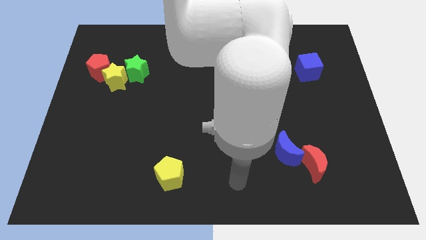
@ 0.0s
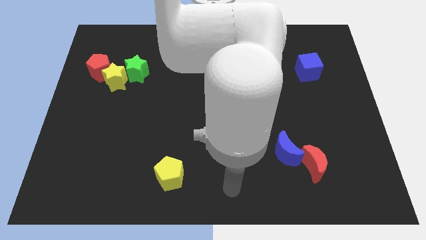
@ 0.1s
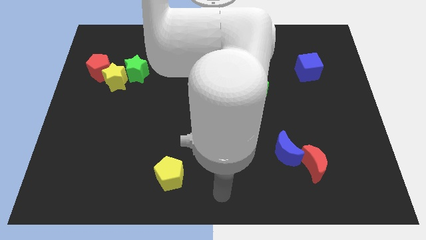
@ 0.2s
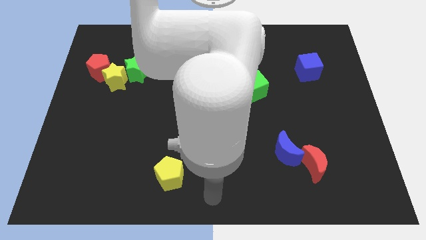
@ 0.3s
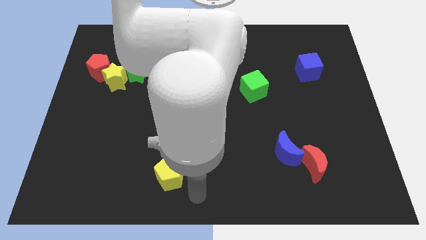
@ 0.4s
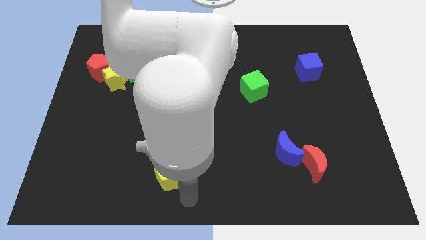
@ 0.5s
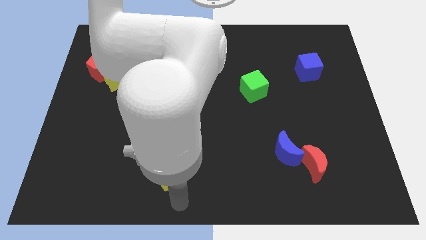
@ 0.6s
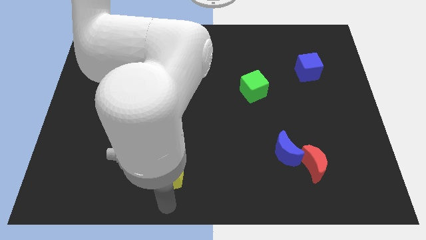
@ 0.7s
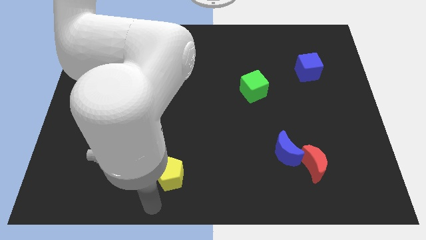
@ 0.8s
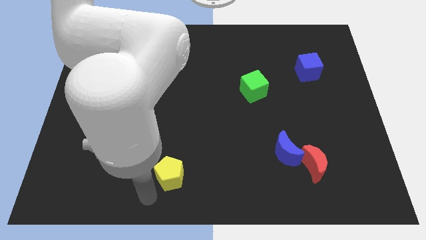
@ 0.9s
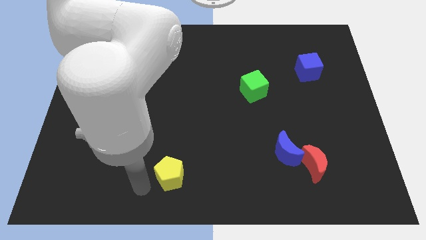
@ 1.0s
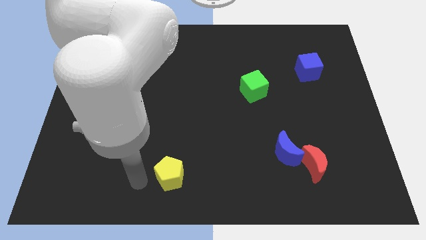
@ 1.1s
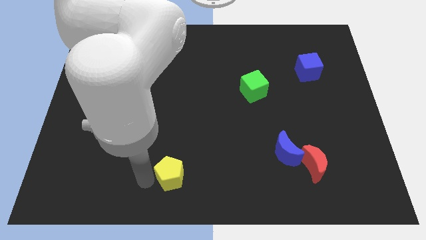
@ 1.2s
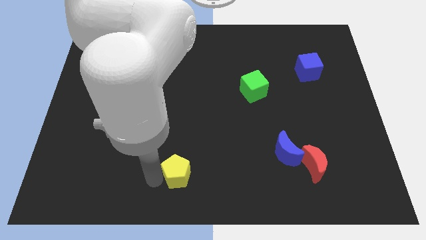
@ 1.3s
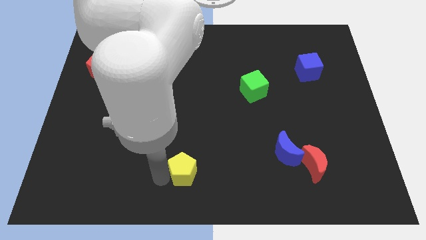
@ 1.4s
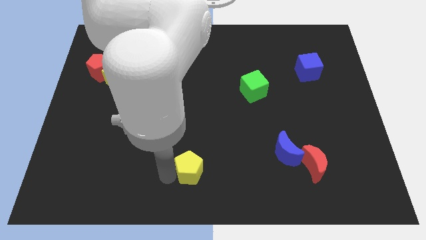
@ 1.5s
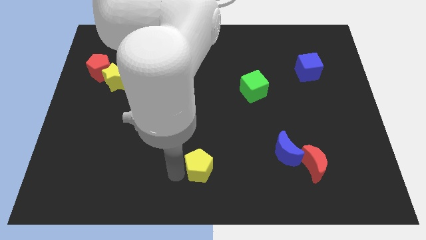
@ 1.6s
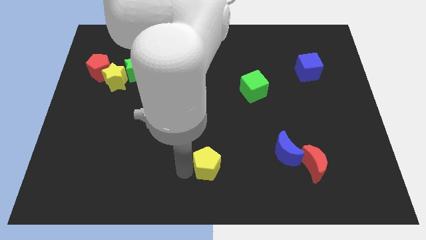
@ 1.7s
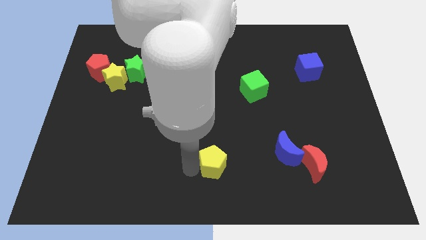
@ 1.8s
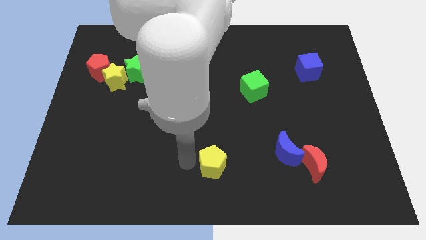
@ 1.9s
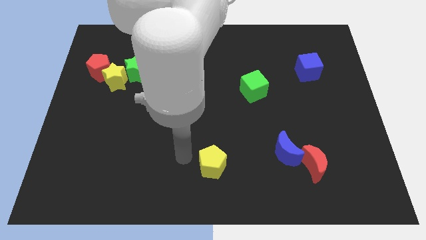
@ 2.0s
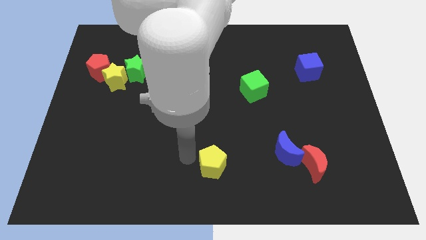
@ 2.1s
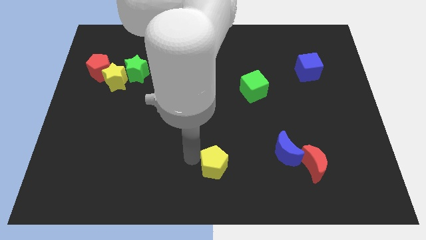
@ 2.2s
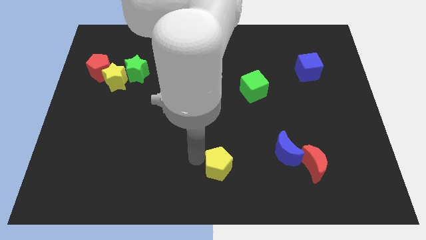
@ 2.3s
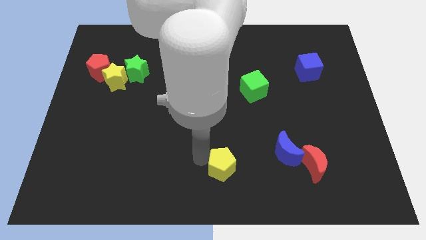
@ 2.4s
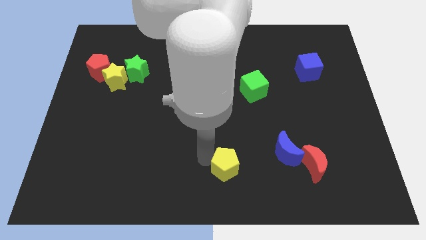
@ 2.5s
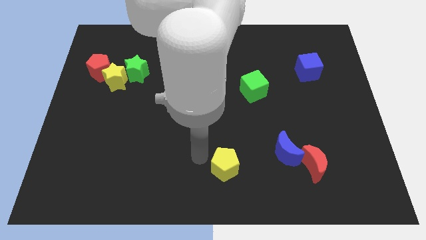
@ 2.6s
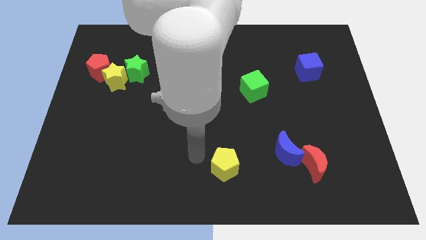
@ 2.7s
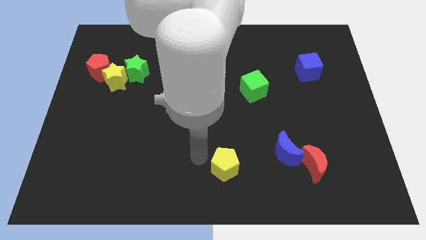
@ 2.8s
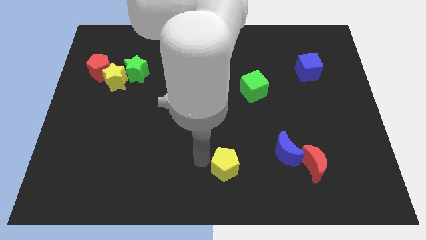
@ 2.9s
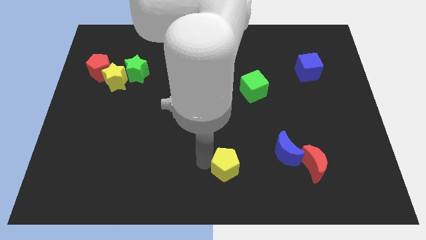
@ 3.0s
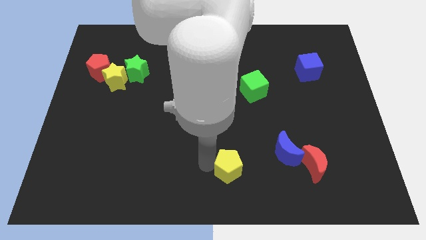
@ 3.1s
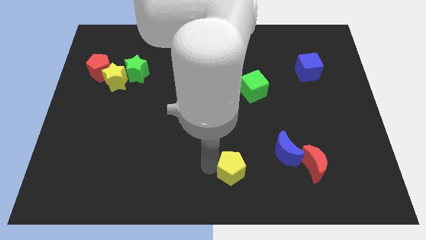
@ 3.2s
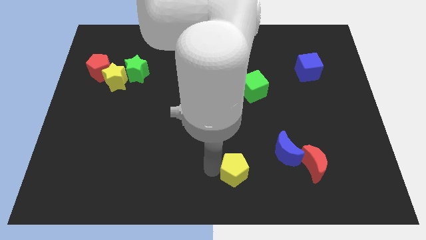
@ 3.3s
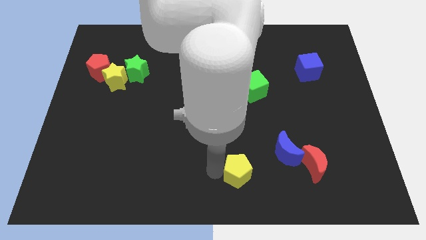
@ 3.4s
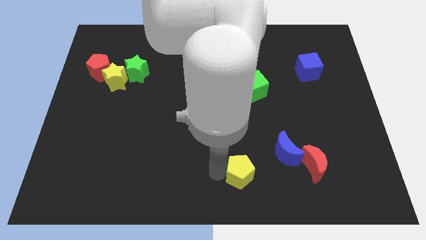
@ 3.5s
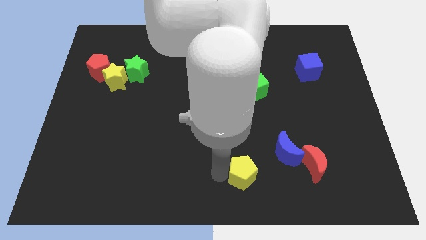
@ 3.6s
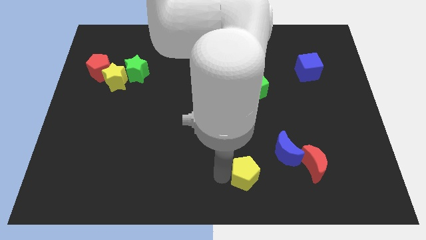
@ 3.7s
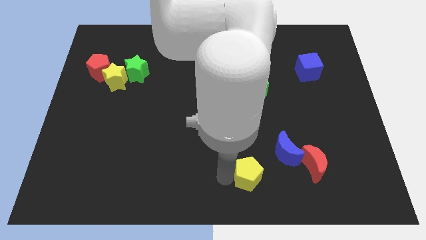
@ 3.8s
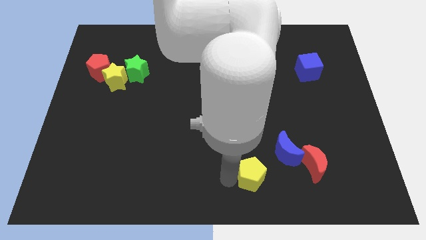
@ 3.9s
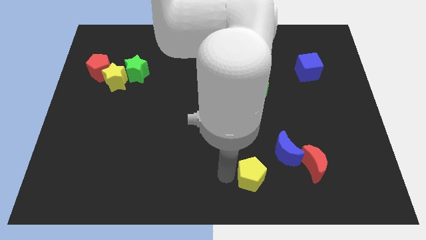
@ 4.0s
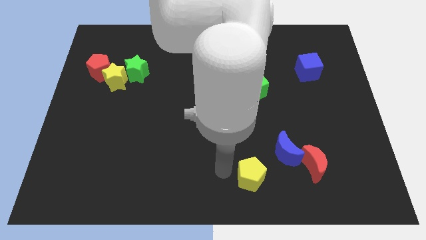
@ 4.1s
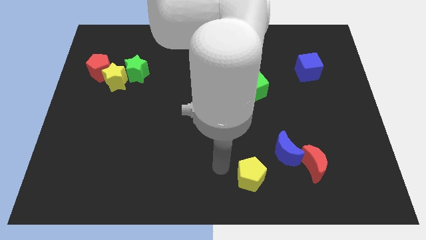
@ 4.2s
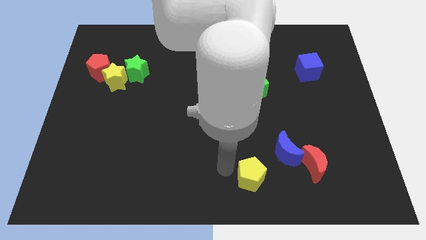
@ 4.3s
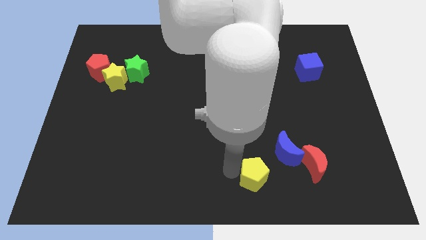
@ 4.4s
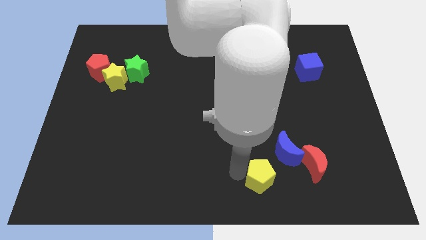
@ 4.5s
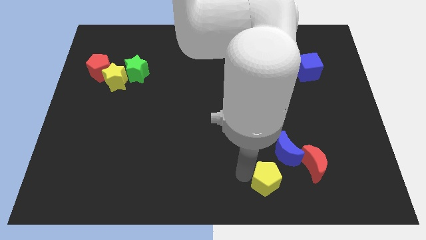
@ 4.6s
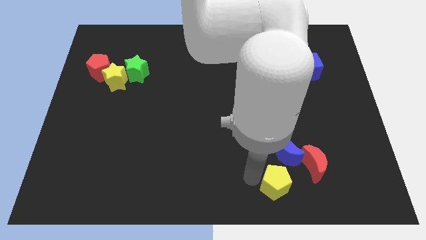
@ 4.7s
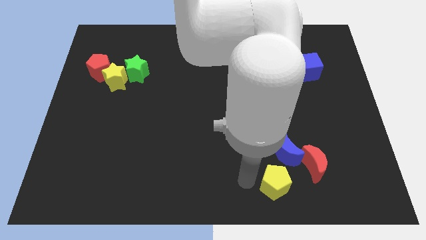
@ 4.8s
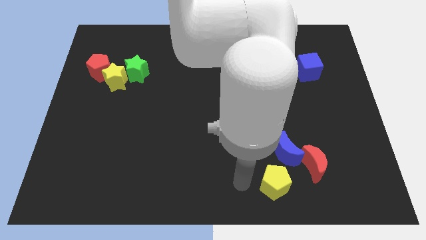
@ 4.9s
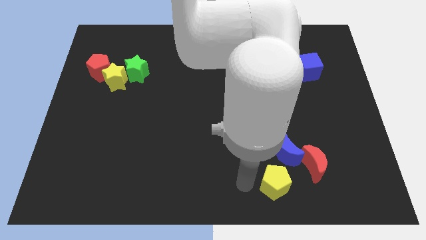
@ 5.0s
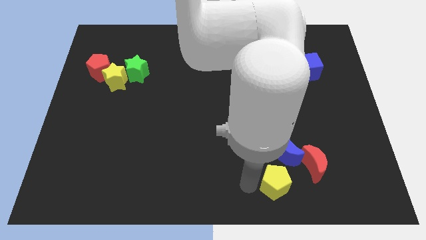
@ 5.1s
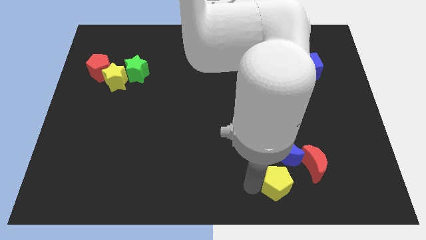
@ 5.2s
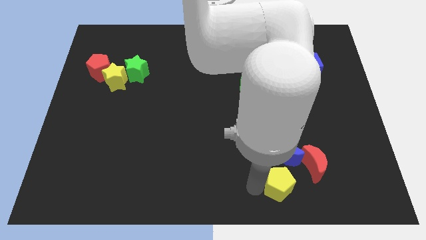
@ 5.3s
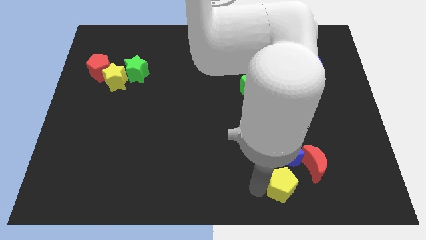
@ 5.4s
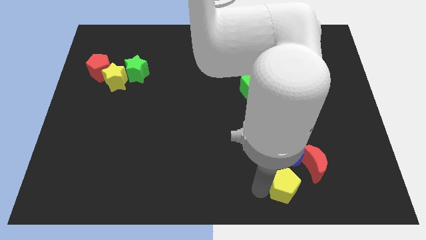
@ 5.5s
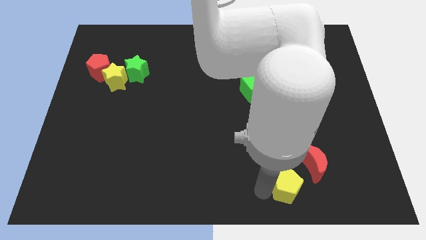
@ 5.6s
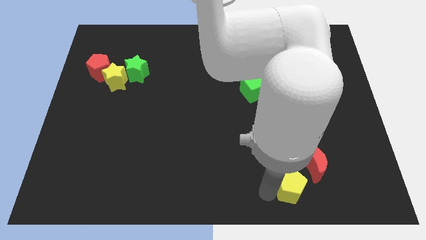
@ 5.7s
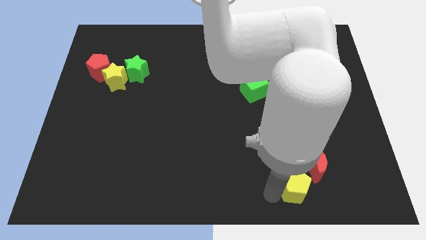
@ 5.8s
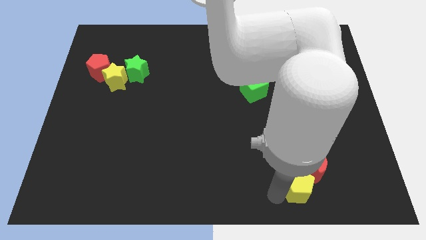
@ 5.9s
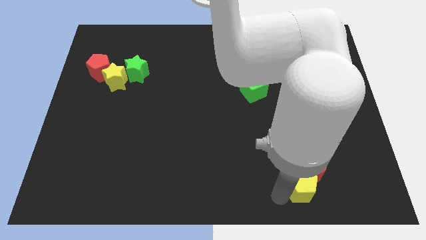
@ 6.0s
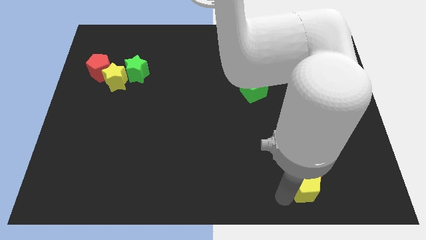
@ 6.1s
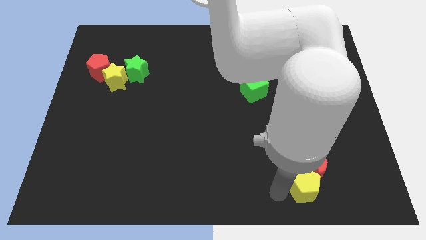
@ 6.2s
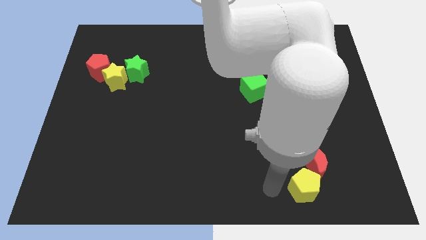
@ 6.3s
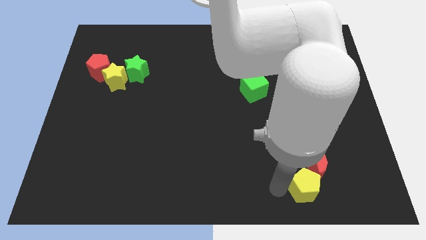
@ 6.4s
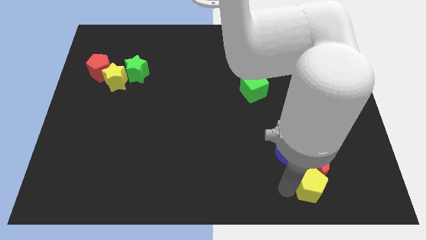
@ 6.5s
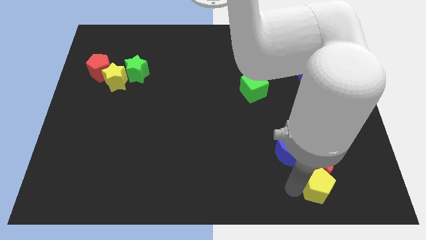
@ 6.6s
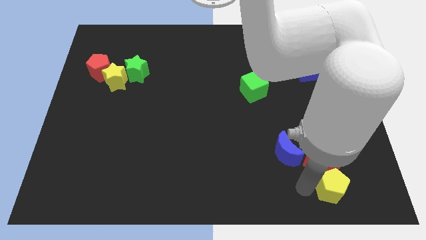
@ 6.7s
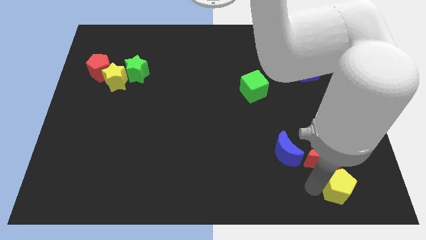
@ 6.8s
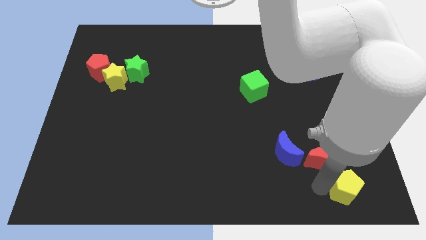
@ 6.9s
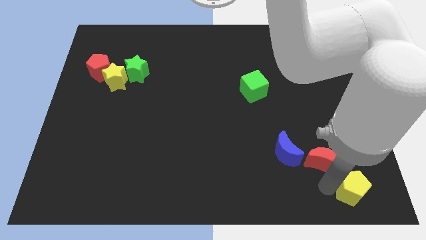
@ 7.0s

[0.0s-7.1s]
put the yellow pentagon to the lower right corner
